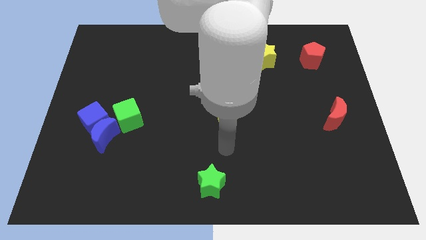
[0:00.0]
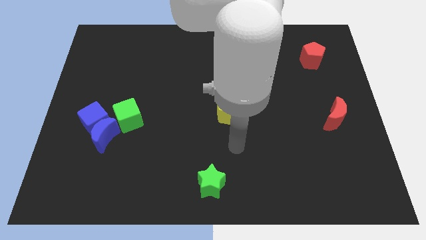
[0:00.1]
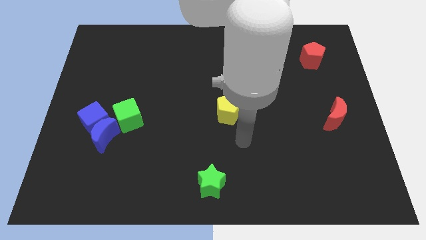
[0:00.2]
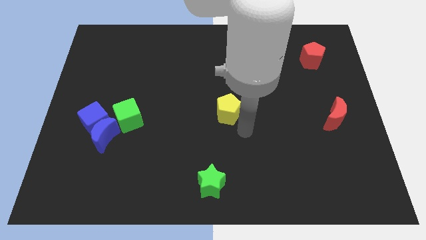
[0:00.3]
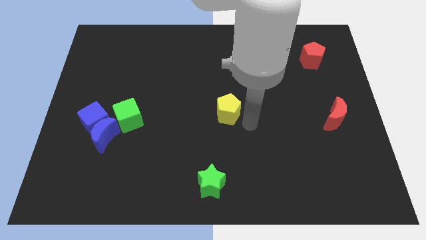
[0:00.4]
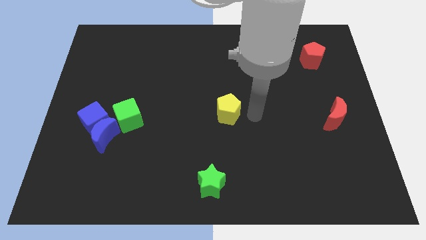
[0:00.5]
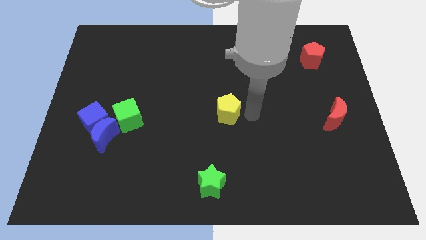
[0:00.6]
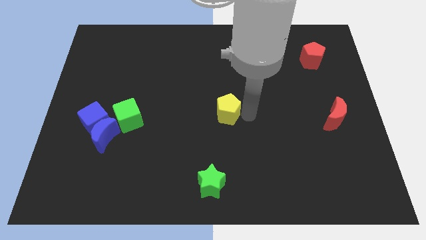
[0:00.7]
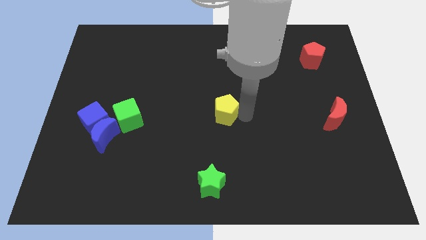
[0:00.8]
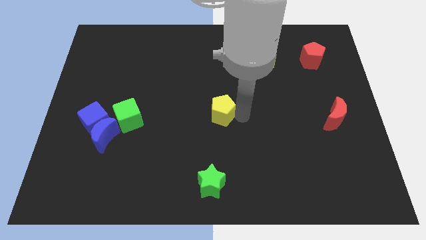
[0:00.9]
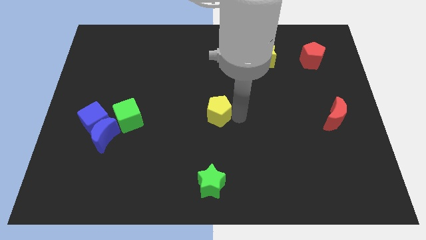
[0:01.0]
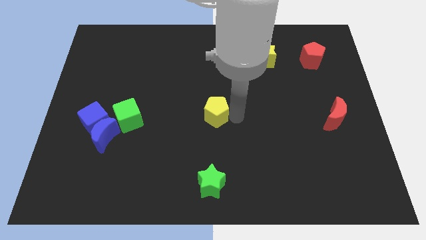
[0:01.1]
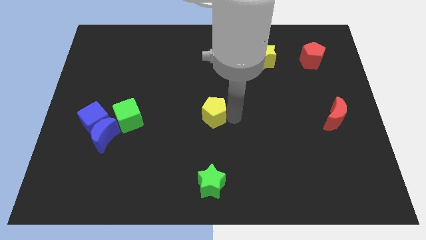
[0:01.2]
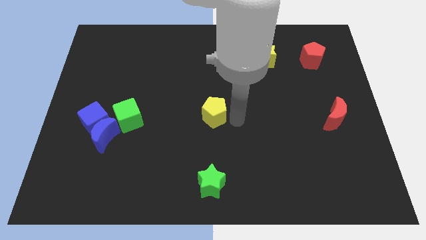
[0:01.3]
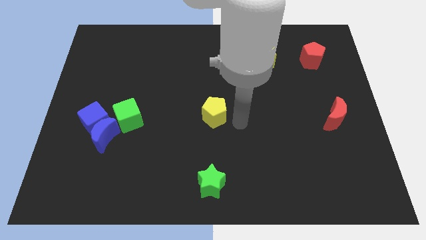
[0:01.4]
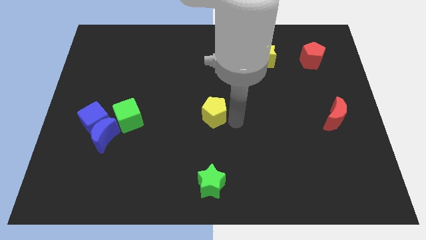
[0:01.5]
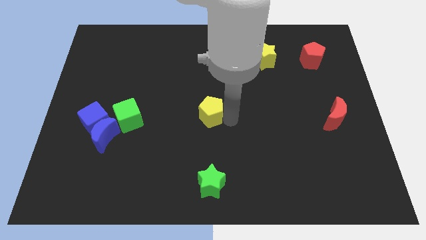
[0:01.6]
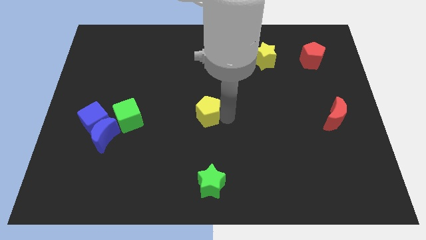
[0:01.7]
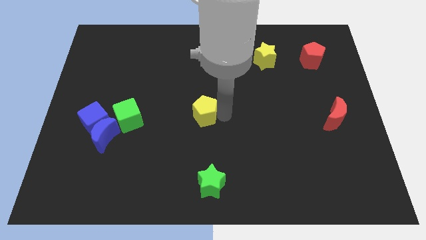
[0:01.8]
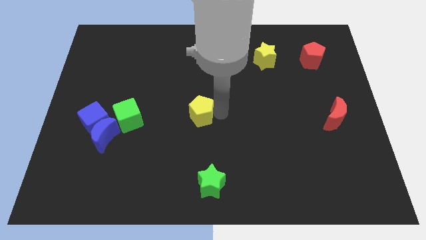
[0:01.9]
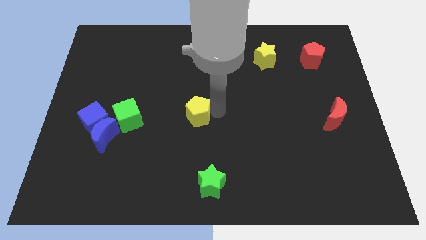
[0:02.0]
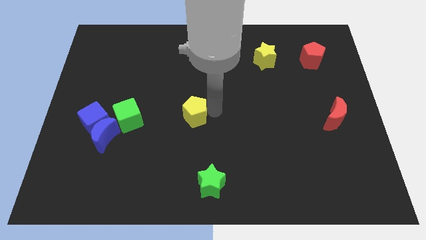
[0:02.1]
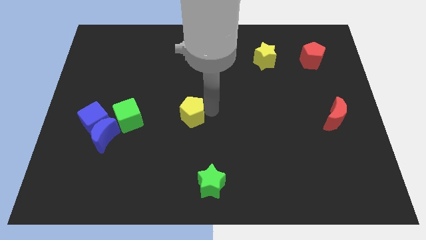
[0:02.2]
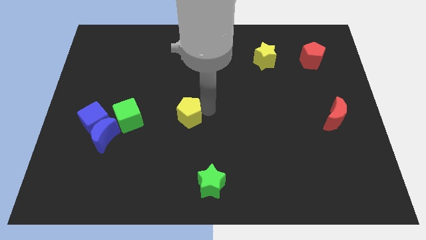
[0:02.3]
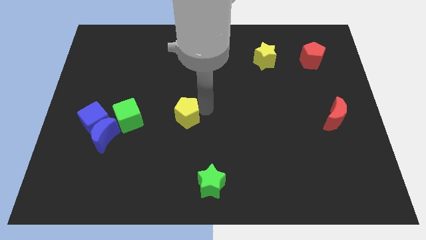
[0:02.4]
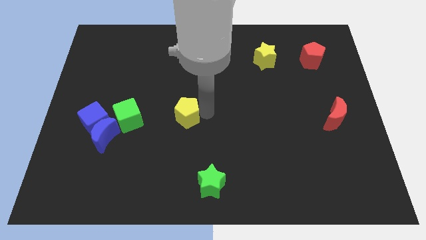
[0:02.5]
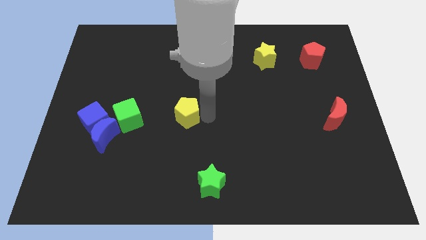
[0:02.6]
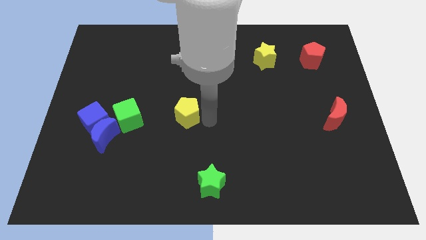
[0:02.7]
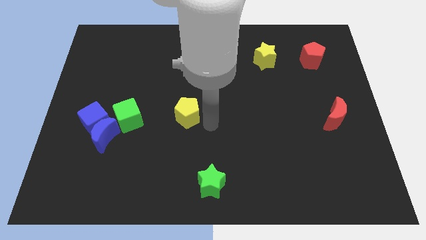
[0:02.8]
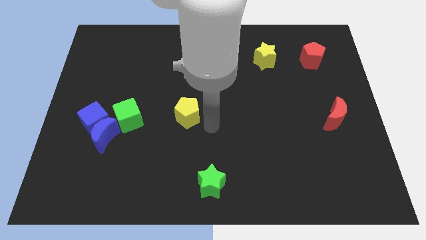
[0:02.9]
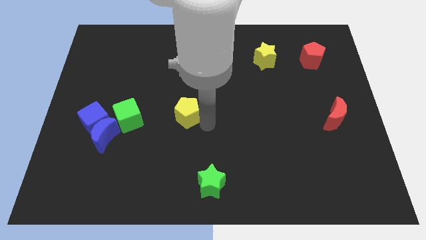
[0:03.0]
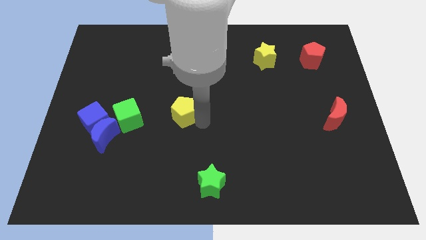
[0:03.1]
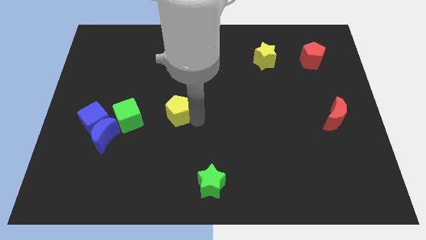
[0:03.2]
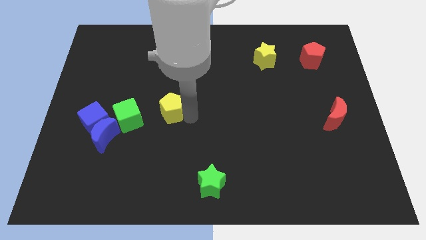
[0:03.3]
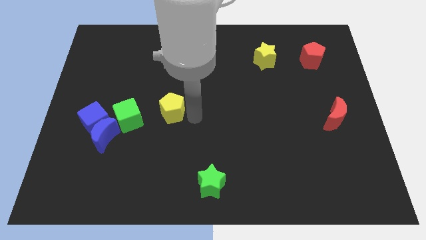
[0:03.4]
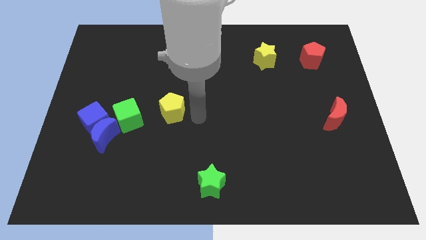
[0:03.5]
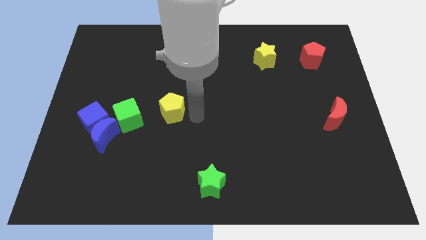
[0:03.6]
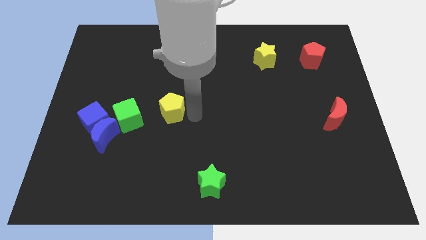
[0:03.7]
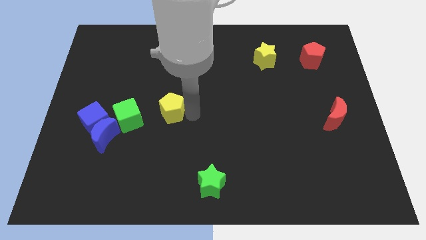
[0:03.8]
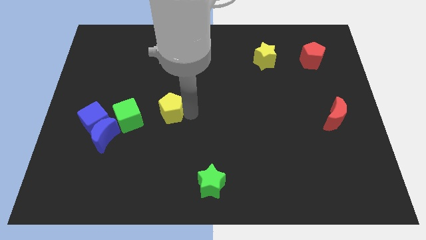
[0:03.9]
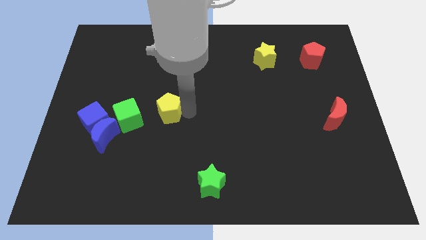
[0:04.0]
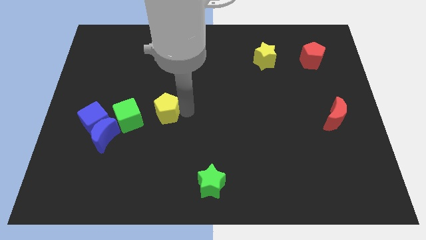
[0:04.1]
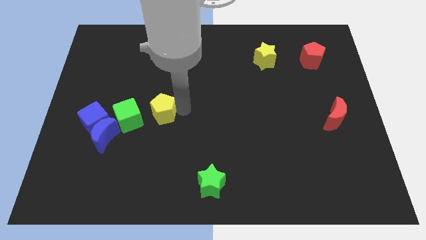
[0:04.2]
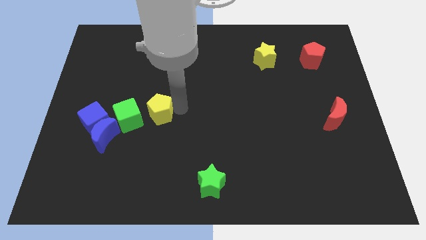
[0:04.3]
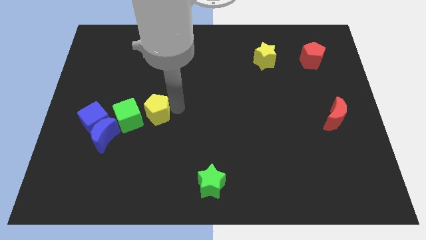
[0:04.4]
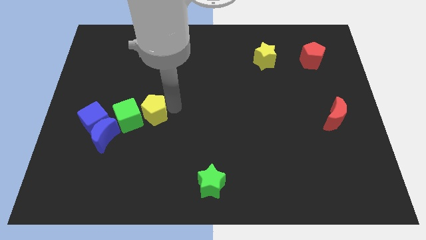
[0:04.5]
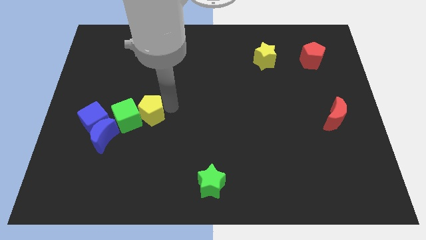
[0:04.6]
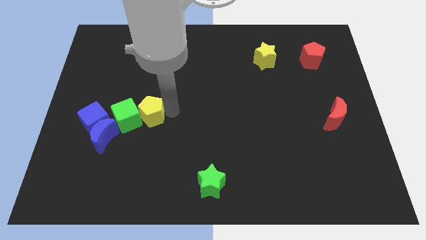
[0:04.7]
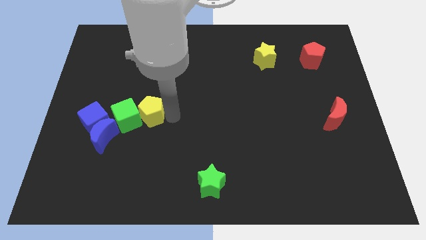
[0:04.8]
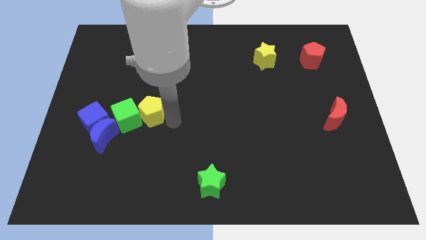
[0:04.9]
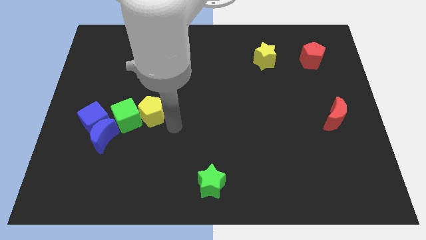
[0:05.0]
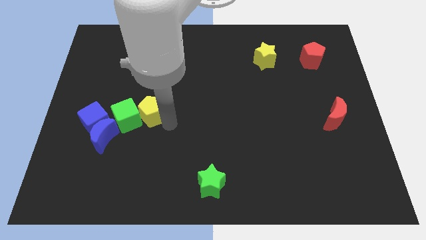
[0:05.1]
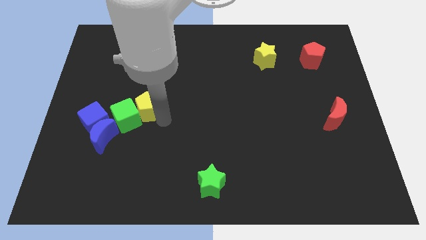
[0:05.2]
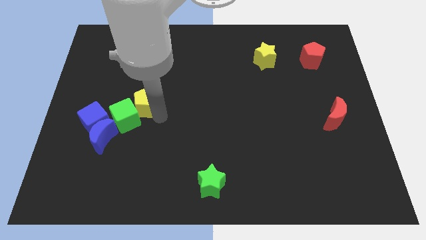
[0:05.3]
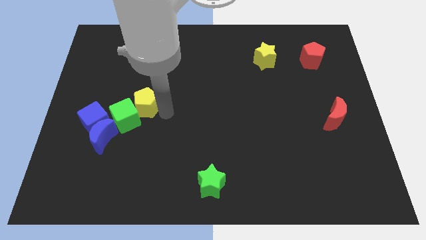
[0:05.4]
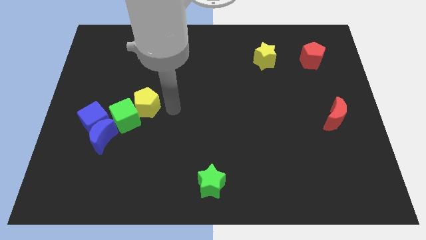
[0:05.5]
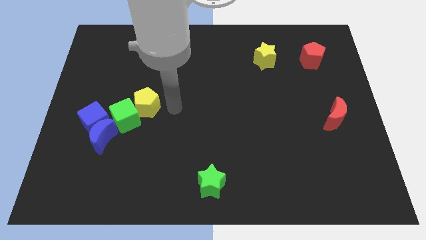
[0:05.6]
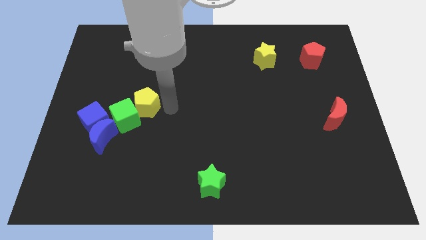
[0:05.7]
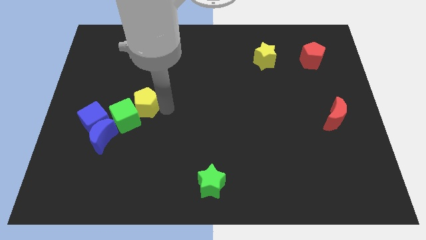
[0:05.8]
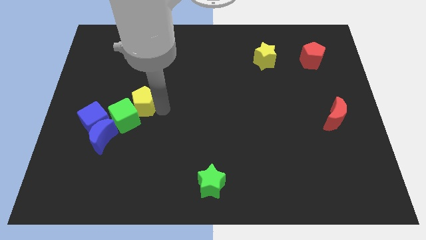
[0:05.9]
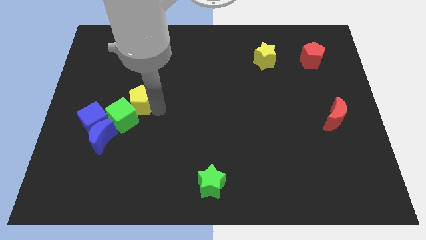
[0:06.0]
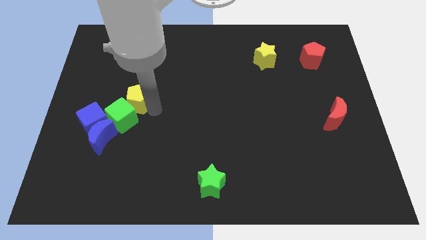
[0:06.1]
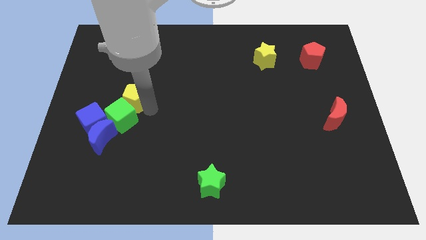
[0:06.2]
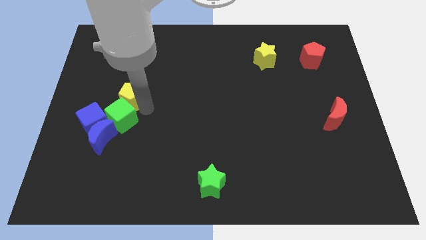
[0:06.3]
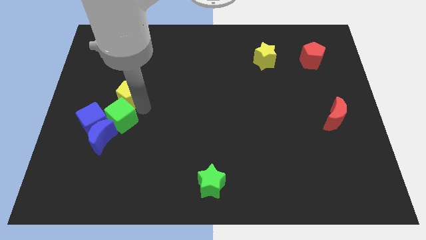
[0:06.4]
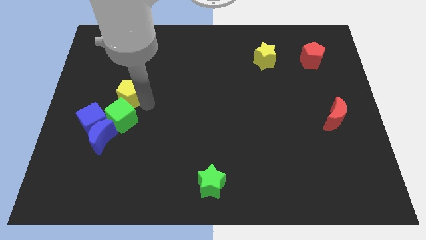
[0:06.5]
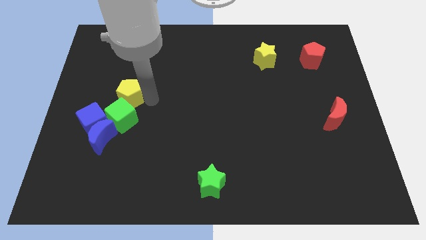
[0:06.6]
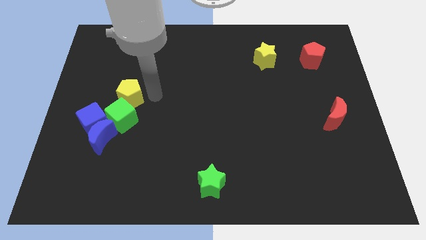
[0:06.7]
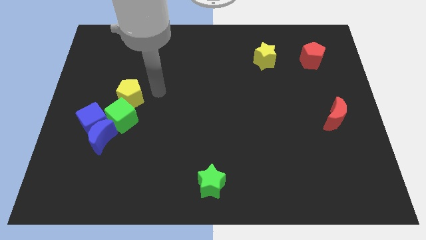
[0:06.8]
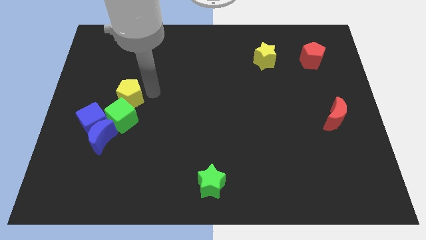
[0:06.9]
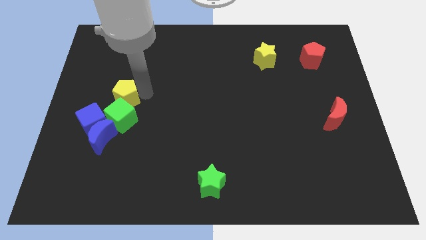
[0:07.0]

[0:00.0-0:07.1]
move the yellow pentagon diagonally up and to the left of the green cube

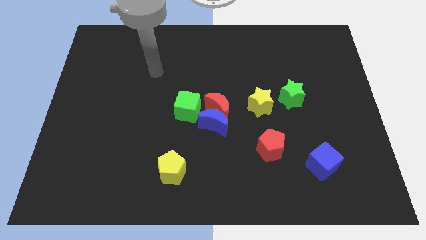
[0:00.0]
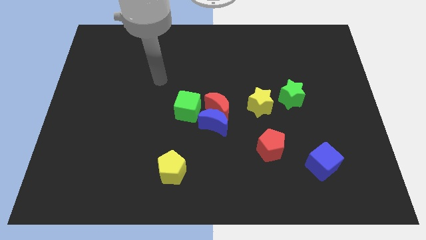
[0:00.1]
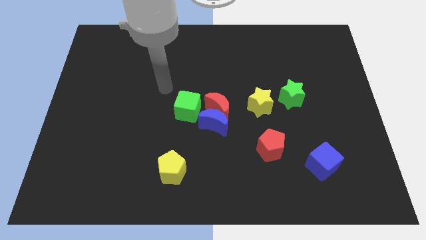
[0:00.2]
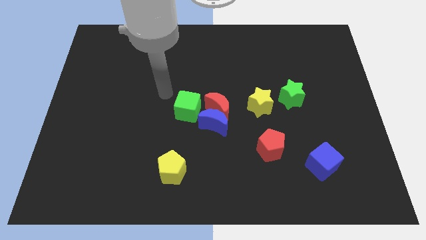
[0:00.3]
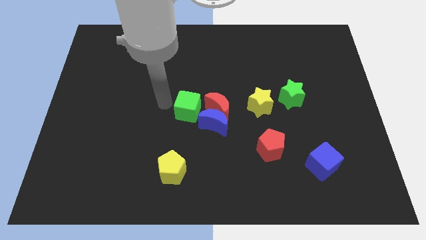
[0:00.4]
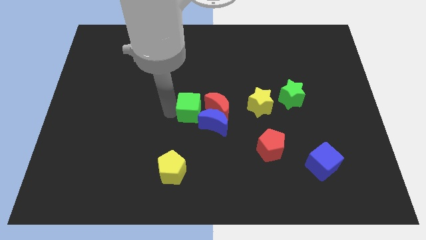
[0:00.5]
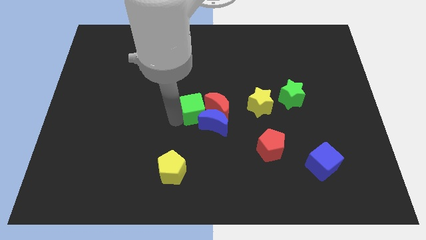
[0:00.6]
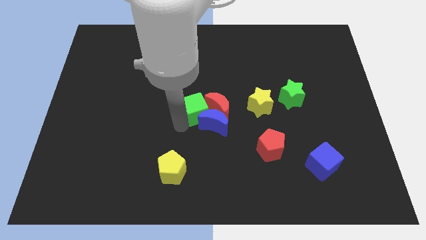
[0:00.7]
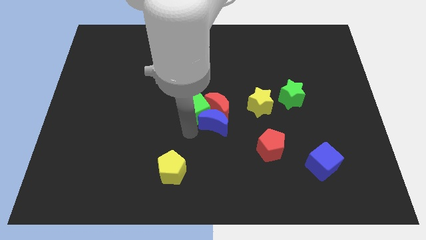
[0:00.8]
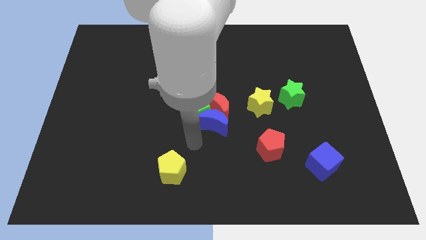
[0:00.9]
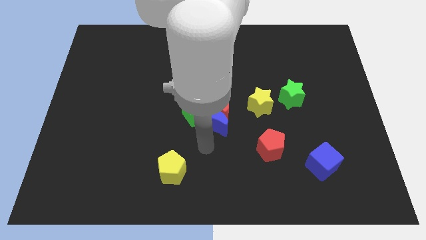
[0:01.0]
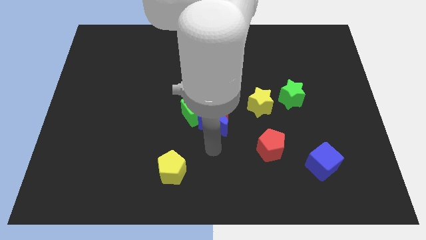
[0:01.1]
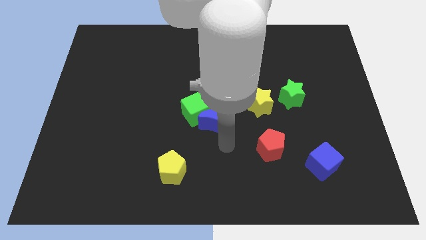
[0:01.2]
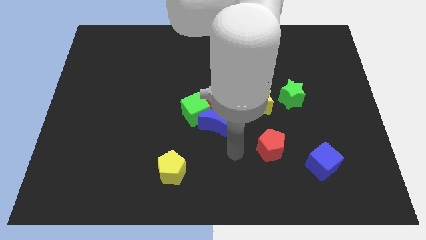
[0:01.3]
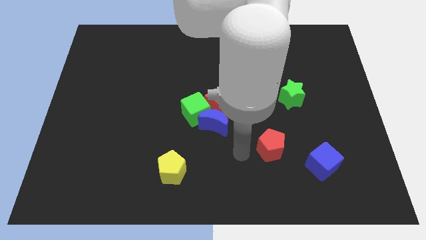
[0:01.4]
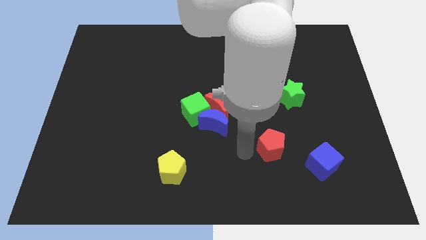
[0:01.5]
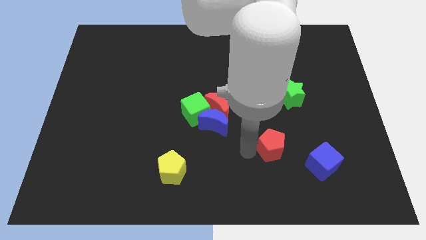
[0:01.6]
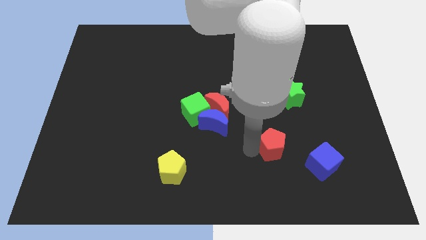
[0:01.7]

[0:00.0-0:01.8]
put the red pentagon diagonally up and to the left of the blue cube
